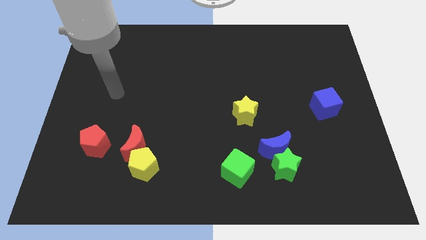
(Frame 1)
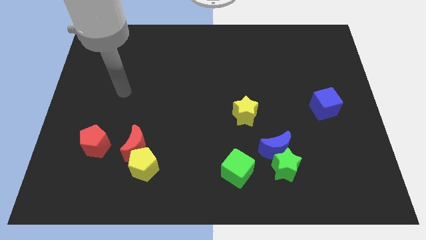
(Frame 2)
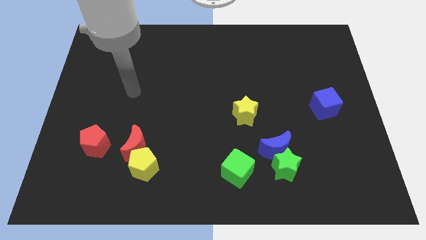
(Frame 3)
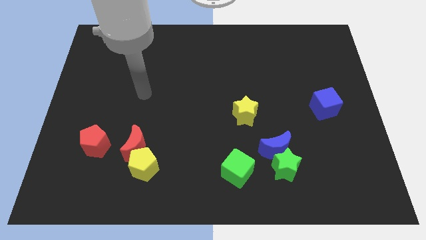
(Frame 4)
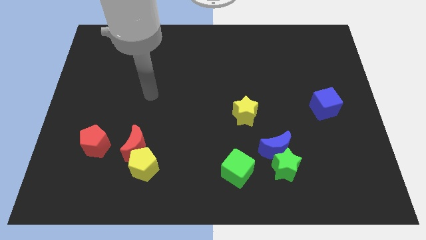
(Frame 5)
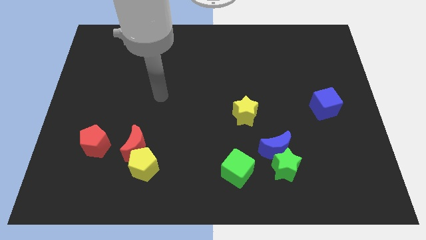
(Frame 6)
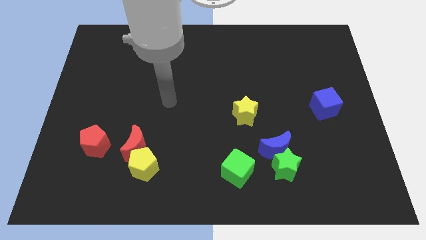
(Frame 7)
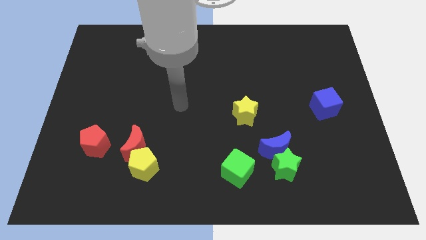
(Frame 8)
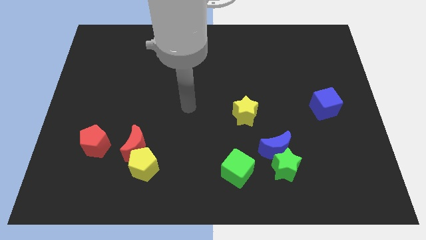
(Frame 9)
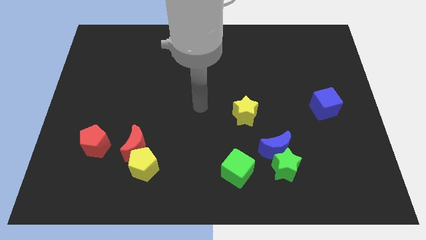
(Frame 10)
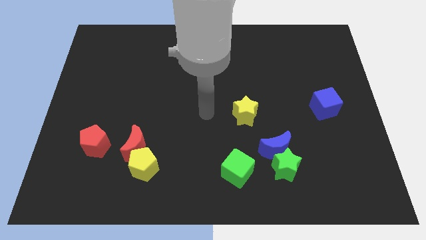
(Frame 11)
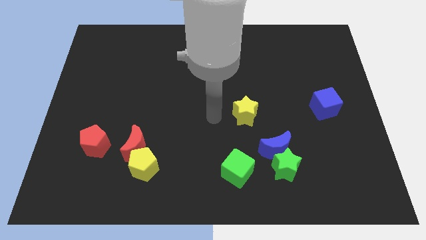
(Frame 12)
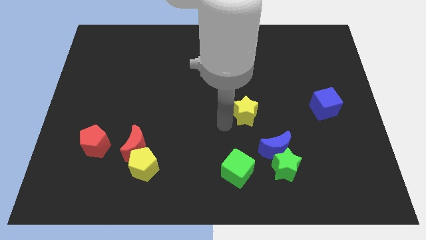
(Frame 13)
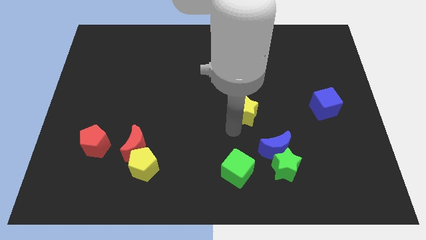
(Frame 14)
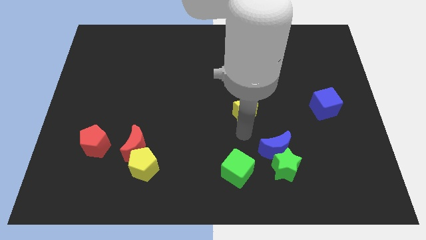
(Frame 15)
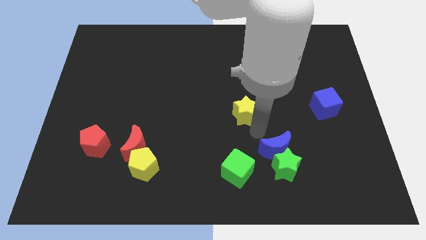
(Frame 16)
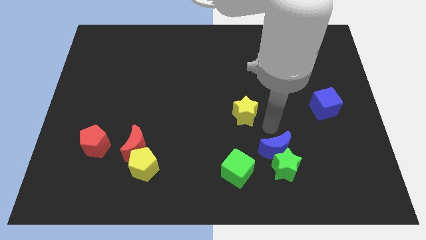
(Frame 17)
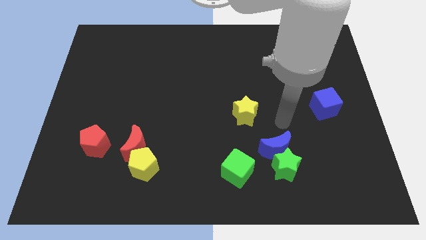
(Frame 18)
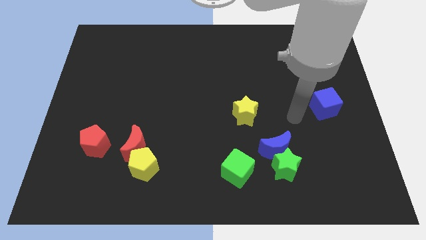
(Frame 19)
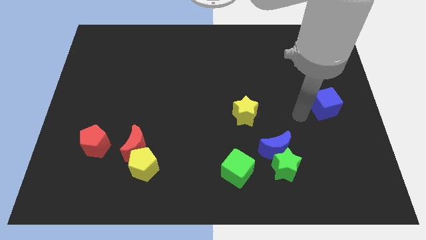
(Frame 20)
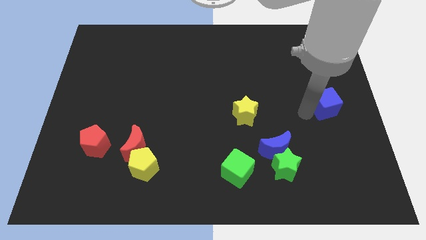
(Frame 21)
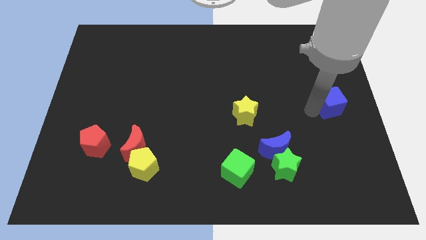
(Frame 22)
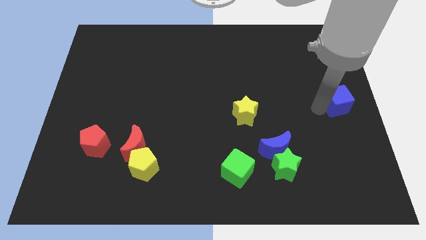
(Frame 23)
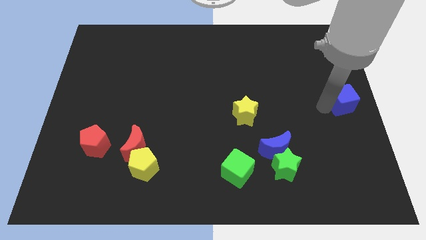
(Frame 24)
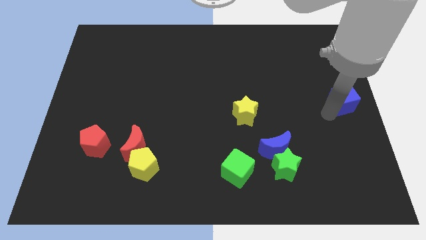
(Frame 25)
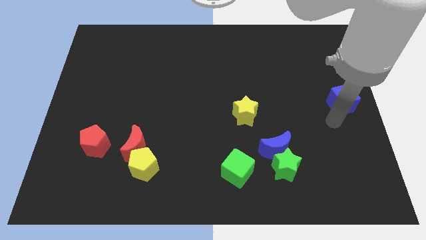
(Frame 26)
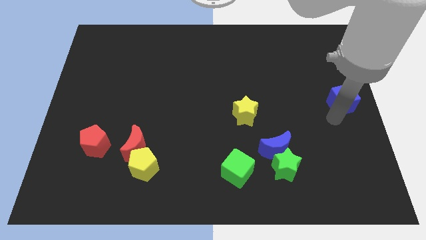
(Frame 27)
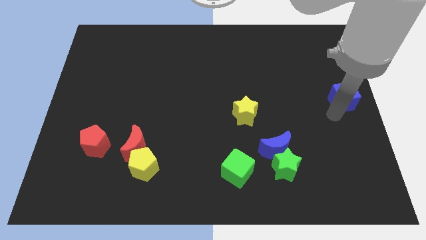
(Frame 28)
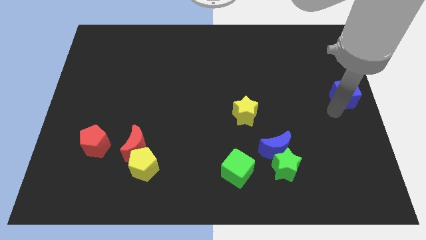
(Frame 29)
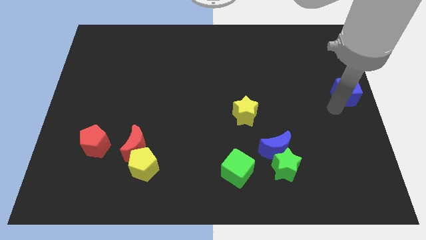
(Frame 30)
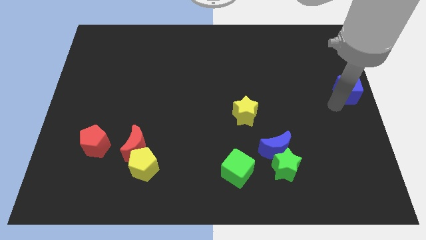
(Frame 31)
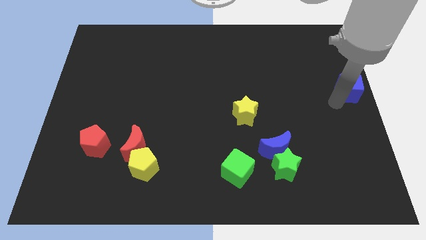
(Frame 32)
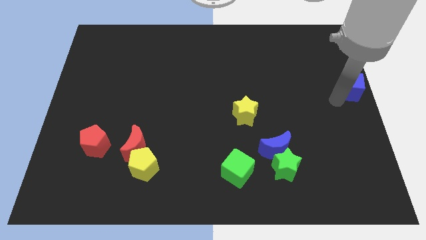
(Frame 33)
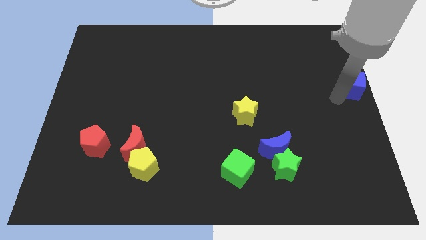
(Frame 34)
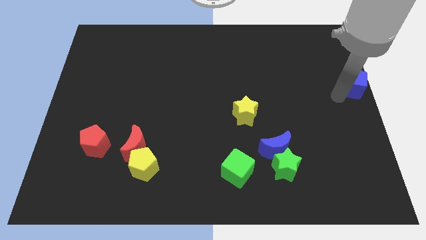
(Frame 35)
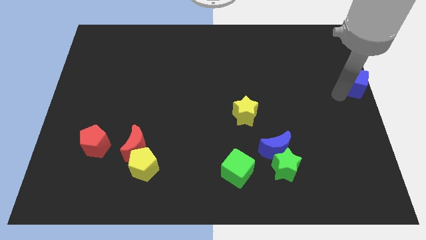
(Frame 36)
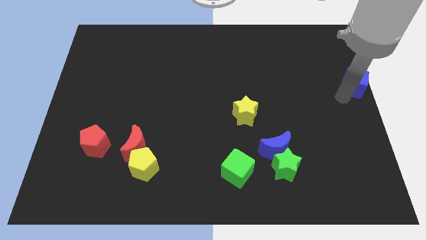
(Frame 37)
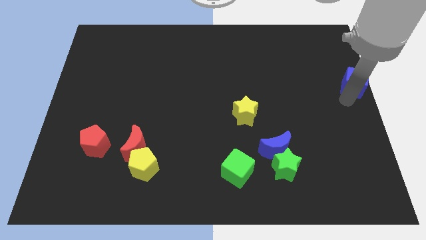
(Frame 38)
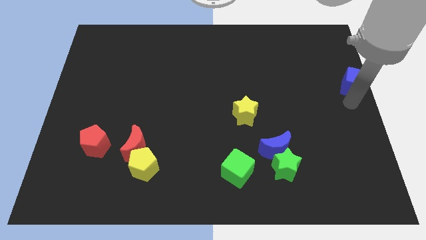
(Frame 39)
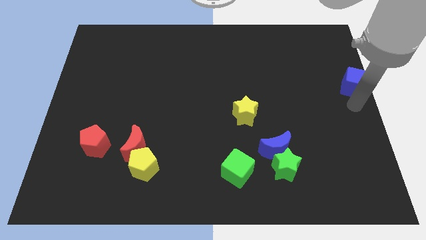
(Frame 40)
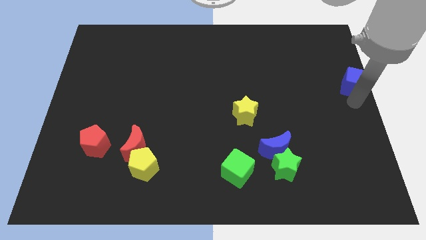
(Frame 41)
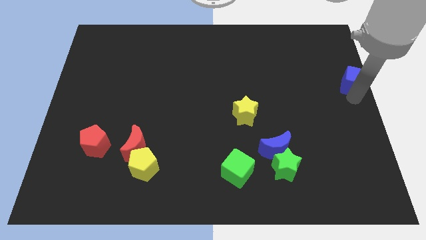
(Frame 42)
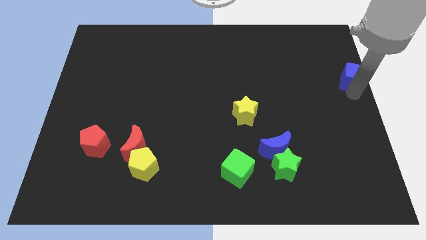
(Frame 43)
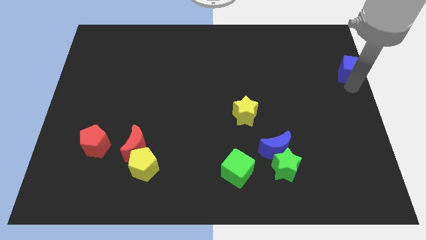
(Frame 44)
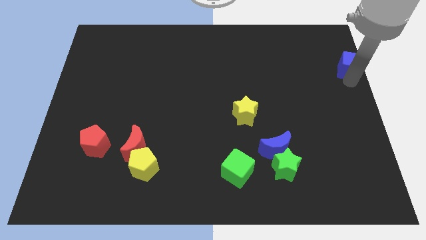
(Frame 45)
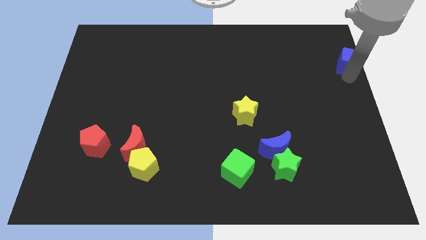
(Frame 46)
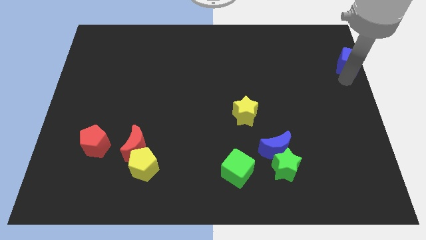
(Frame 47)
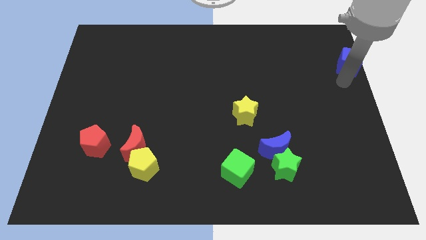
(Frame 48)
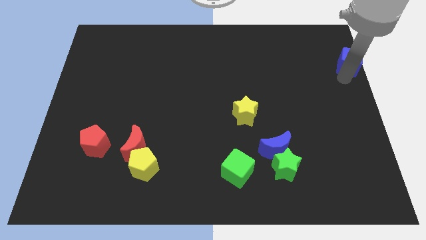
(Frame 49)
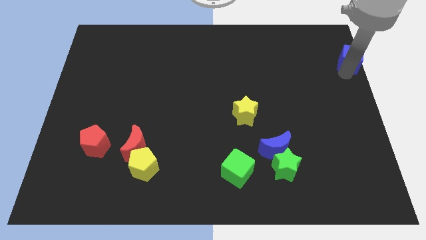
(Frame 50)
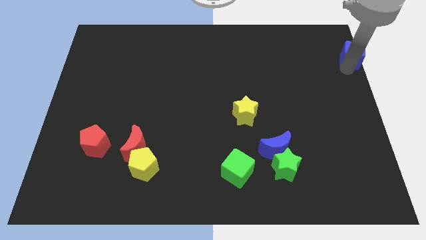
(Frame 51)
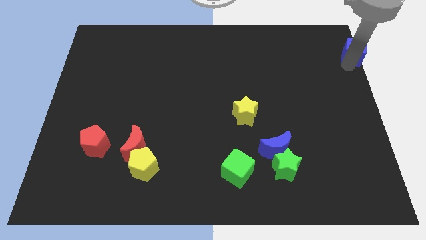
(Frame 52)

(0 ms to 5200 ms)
slide the blue cube to the top right corner

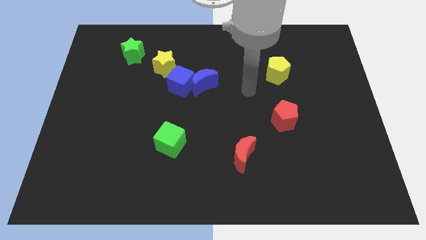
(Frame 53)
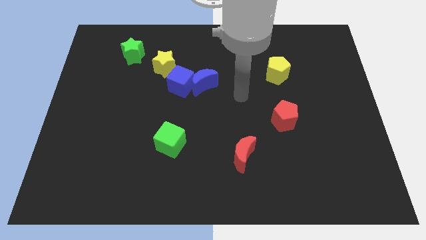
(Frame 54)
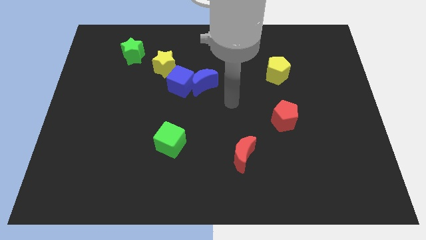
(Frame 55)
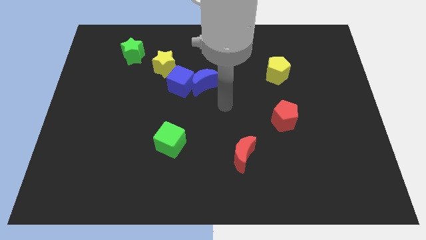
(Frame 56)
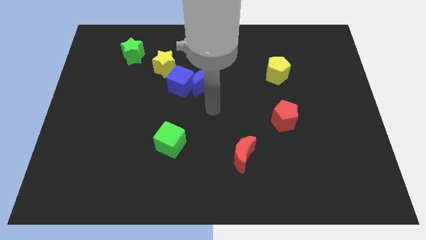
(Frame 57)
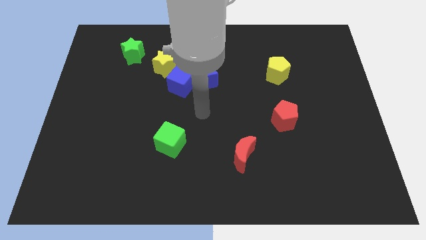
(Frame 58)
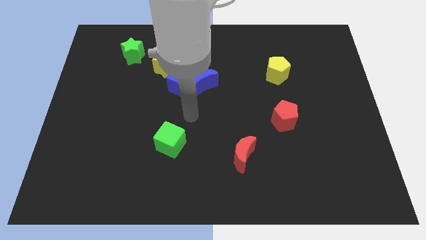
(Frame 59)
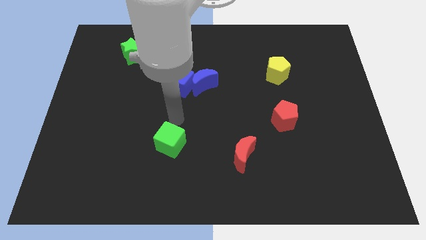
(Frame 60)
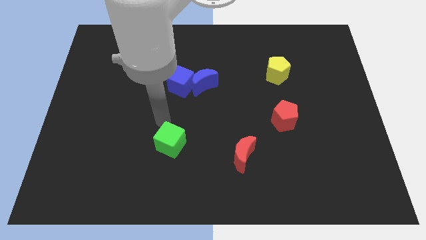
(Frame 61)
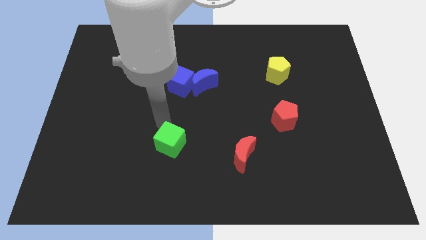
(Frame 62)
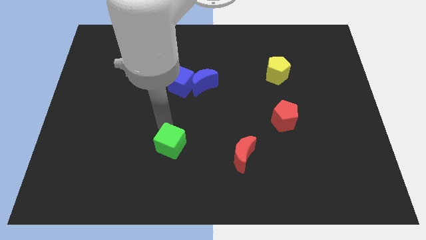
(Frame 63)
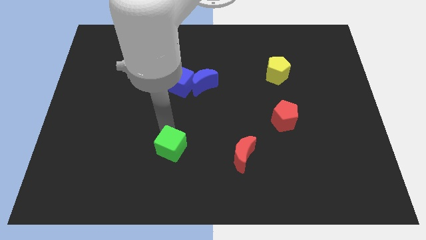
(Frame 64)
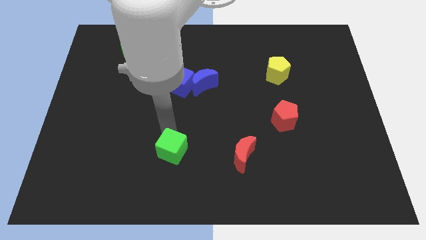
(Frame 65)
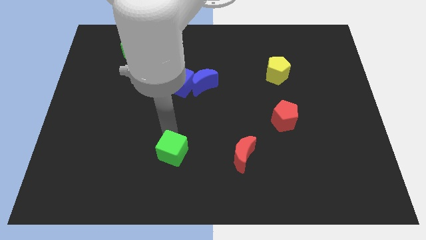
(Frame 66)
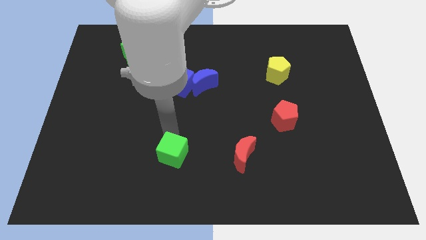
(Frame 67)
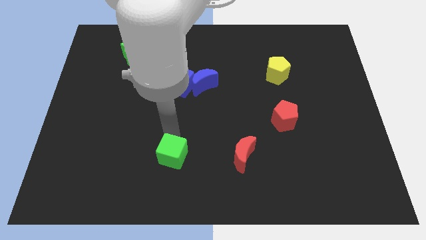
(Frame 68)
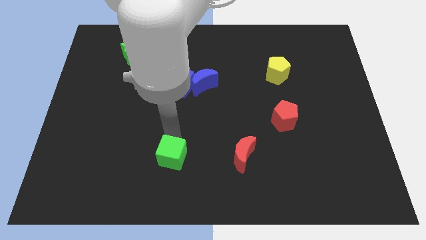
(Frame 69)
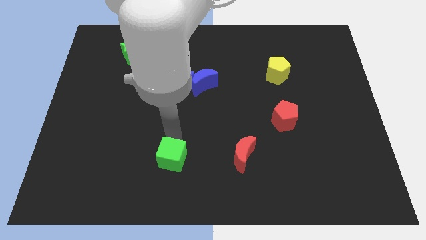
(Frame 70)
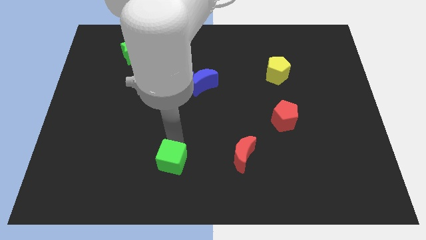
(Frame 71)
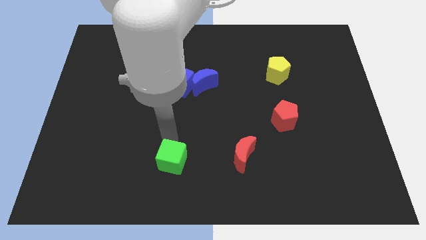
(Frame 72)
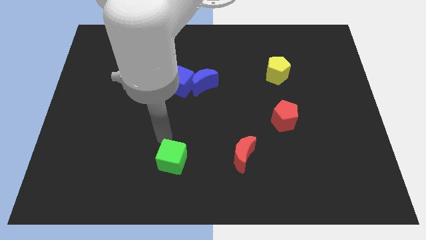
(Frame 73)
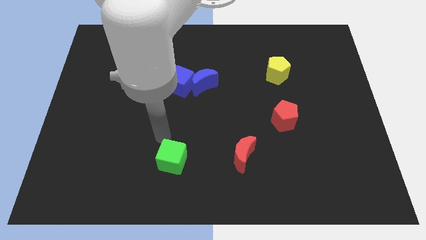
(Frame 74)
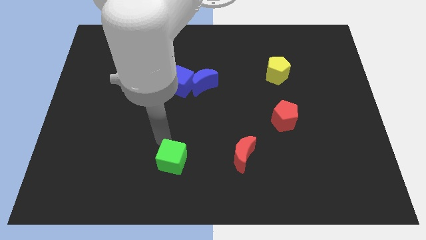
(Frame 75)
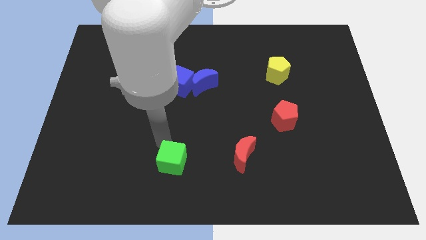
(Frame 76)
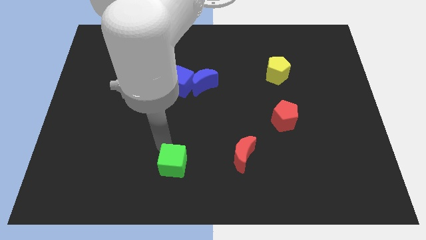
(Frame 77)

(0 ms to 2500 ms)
slide the green cube to the bottom
